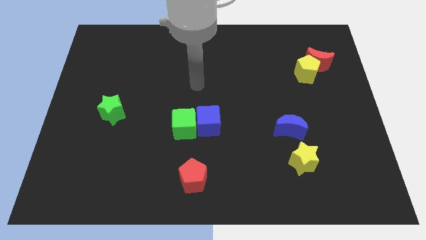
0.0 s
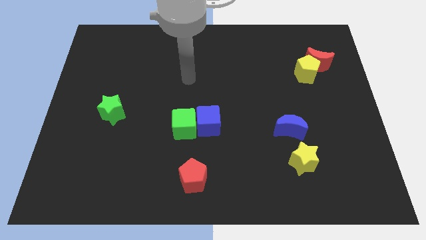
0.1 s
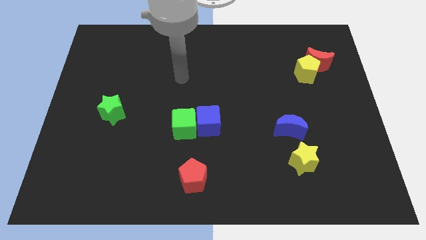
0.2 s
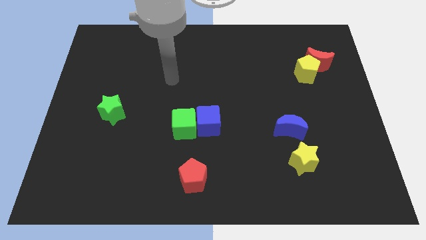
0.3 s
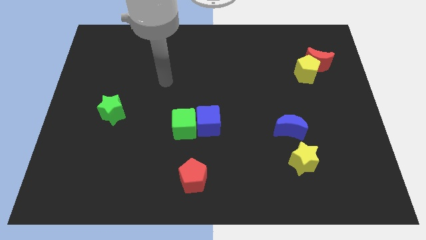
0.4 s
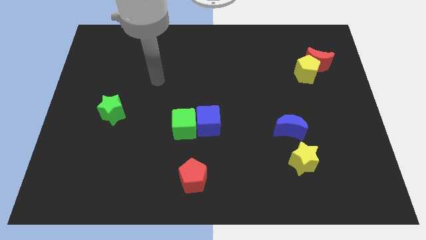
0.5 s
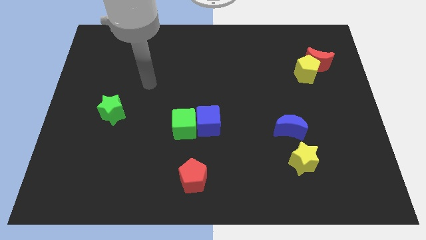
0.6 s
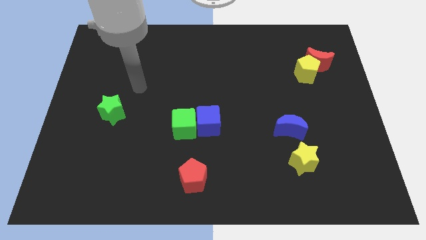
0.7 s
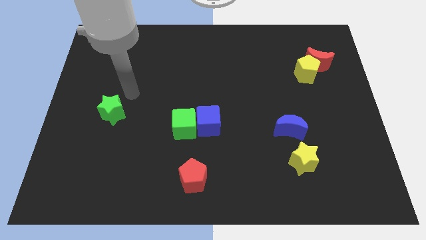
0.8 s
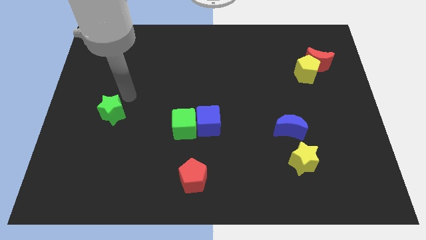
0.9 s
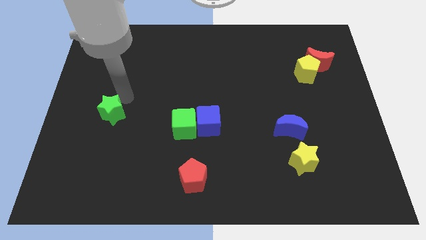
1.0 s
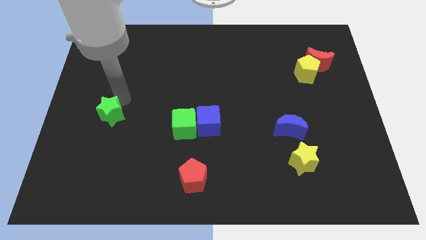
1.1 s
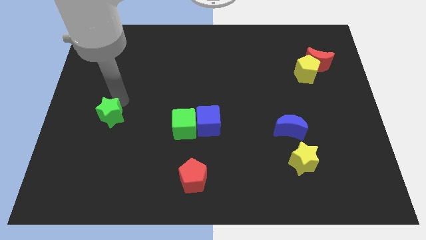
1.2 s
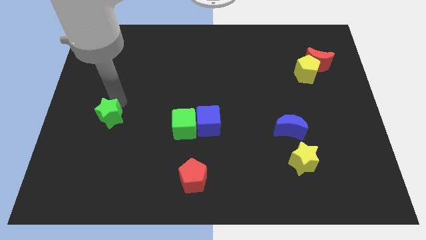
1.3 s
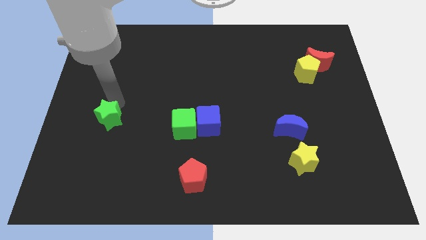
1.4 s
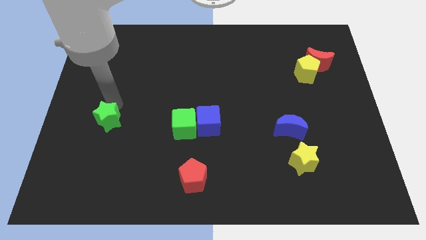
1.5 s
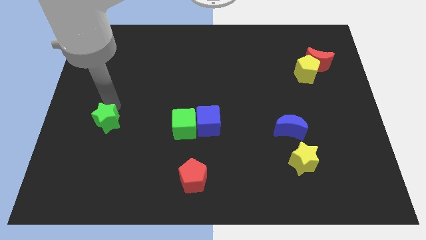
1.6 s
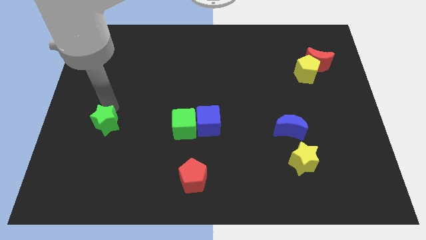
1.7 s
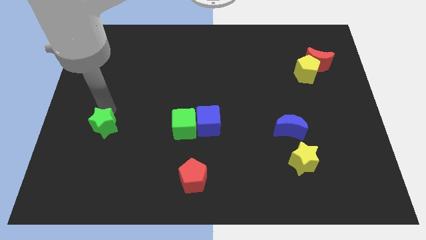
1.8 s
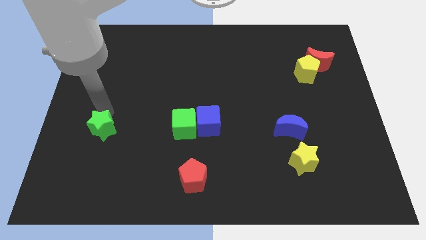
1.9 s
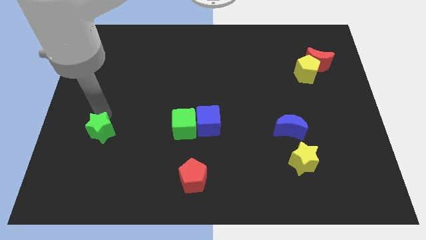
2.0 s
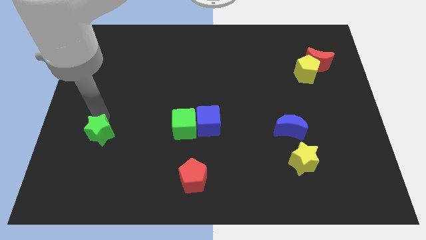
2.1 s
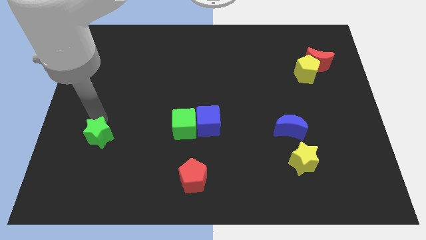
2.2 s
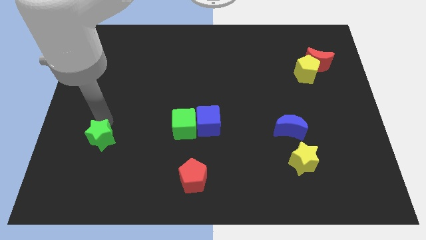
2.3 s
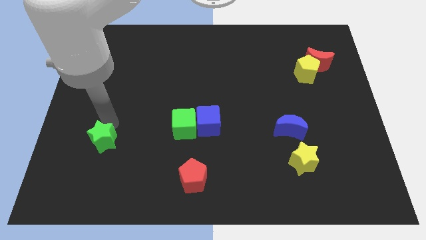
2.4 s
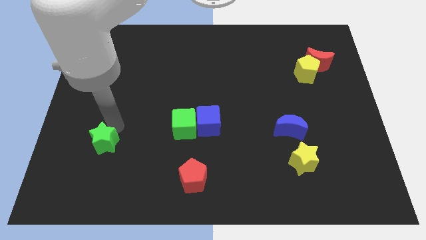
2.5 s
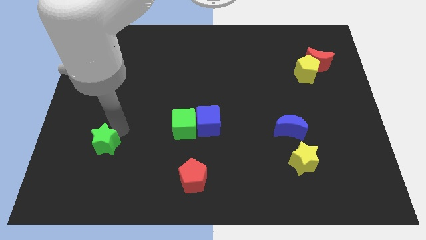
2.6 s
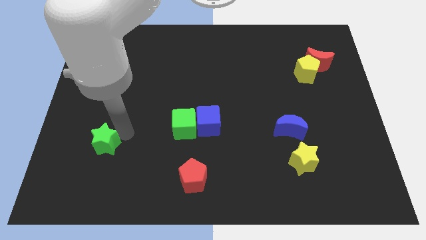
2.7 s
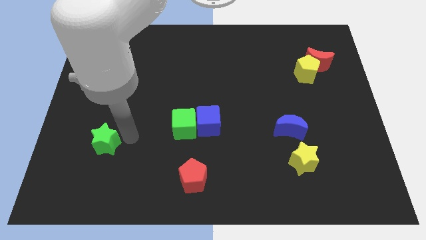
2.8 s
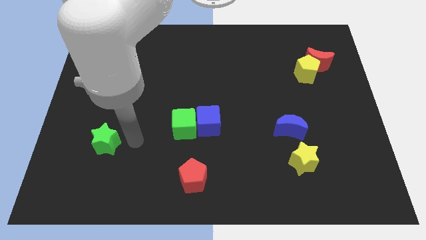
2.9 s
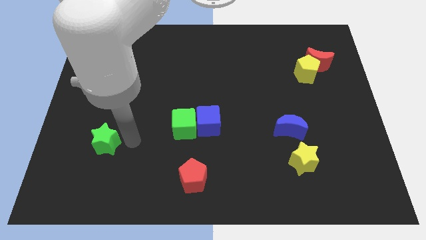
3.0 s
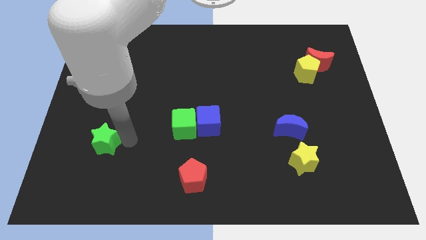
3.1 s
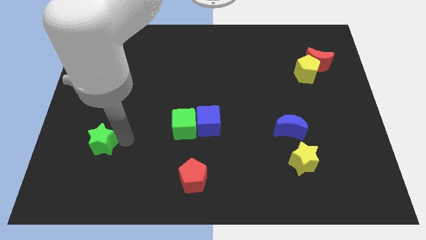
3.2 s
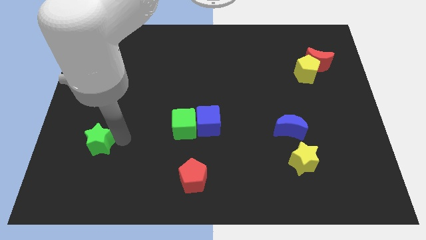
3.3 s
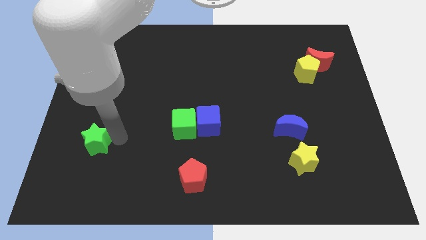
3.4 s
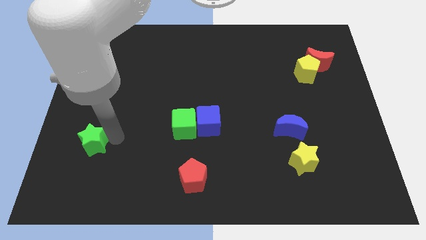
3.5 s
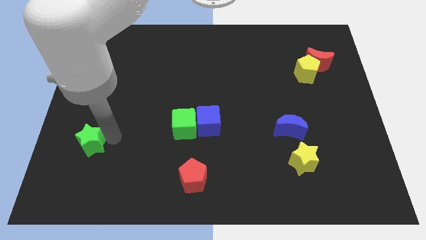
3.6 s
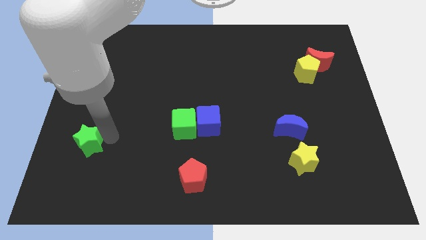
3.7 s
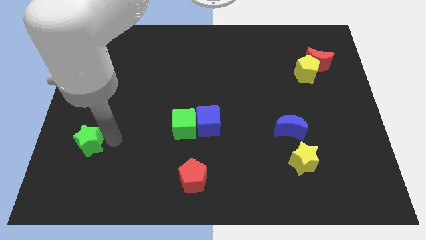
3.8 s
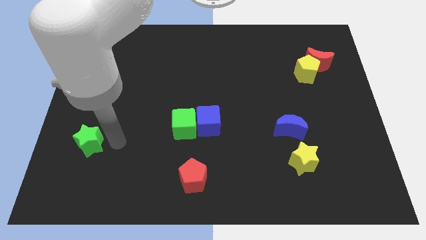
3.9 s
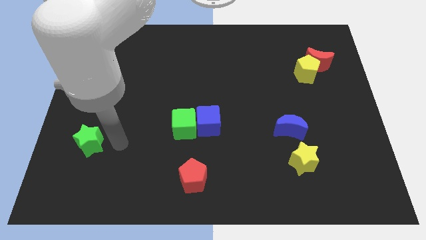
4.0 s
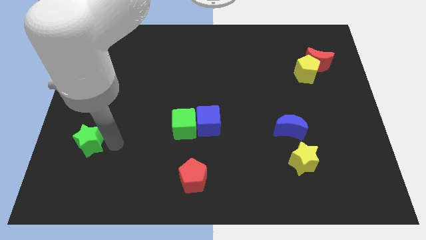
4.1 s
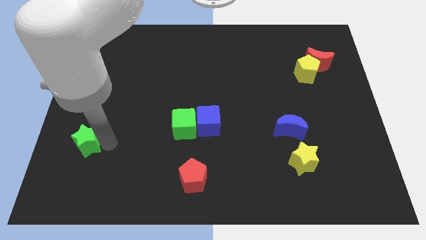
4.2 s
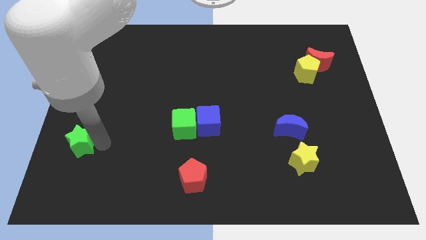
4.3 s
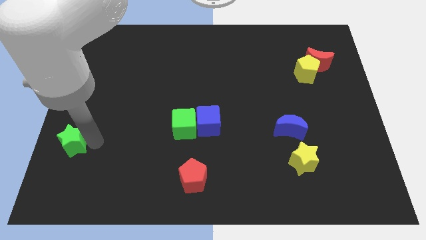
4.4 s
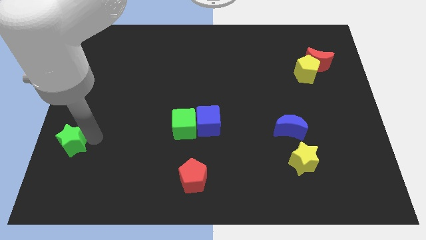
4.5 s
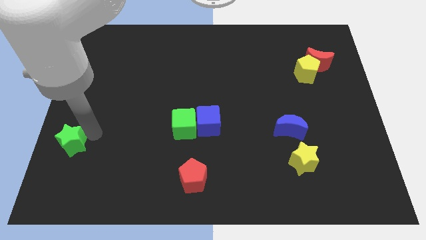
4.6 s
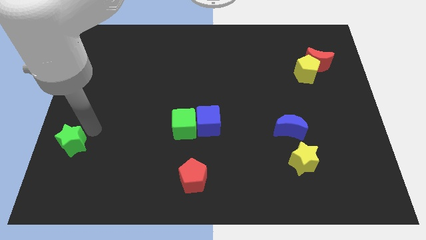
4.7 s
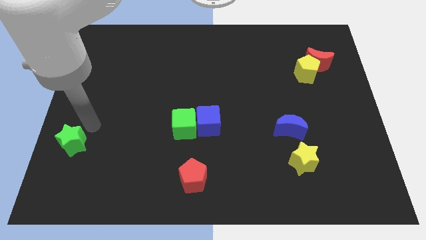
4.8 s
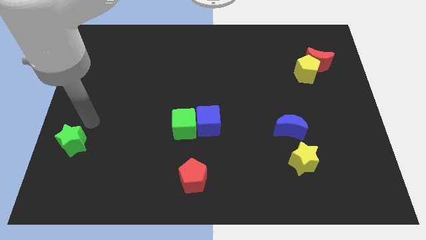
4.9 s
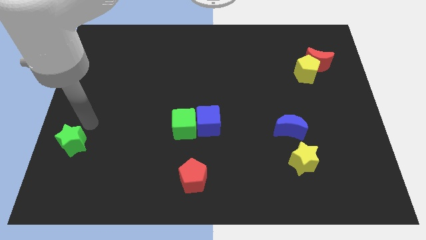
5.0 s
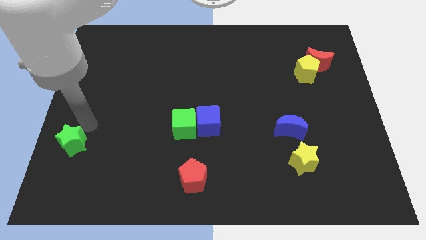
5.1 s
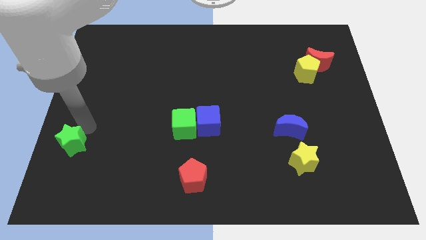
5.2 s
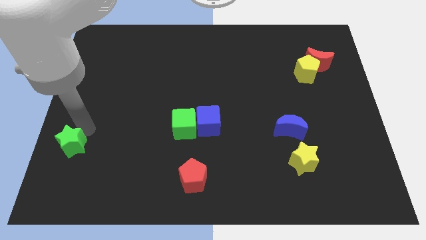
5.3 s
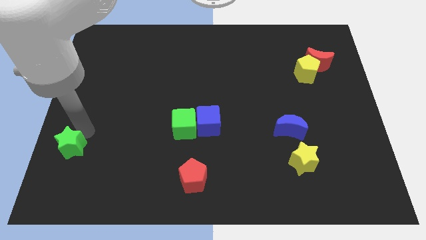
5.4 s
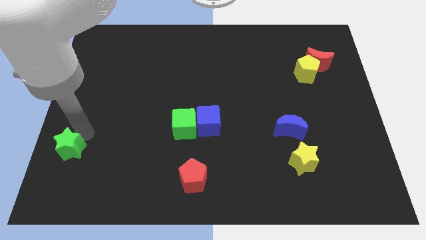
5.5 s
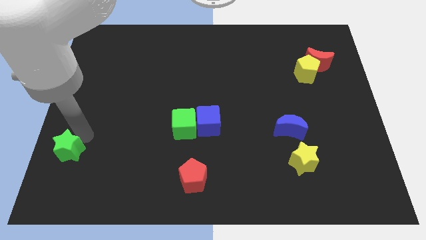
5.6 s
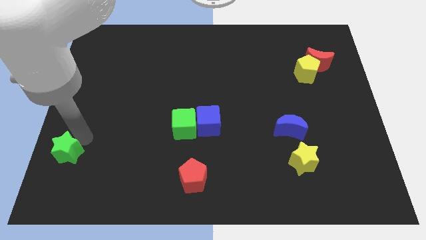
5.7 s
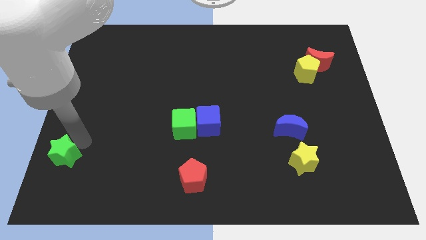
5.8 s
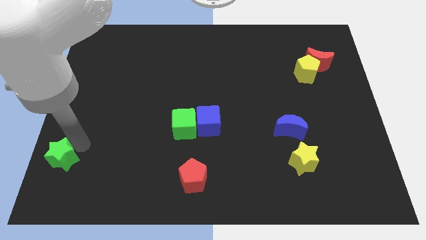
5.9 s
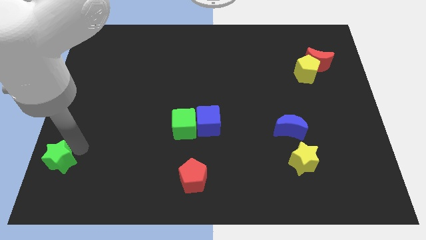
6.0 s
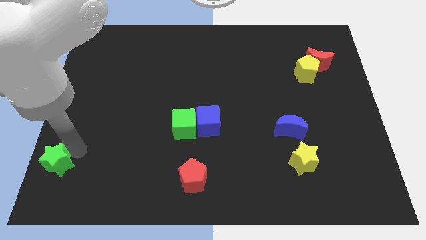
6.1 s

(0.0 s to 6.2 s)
slide the green star to the bottom left of the board

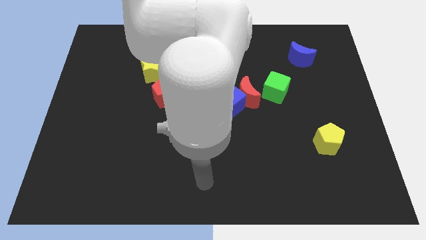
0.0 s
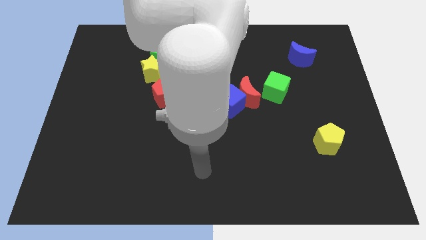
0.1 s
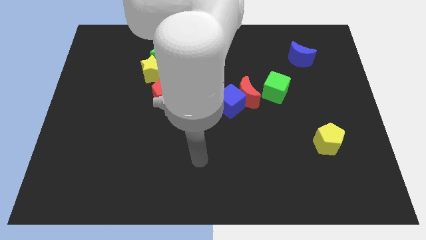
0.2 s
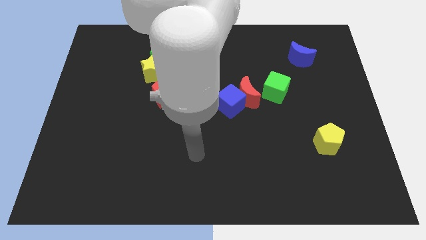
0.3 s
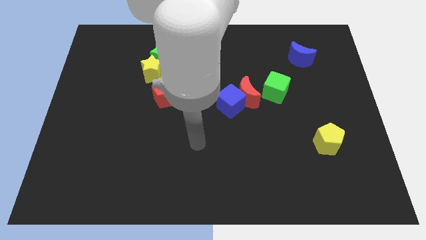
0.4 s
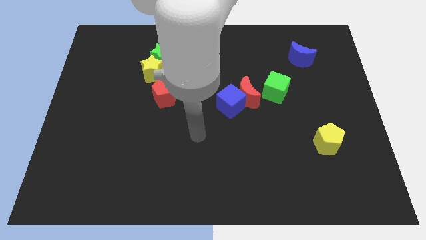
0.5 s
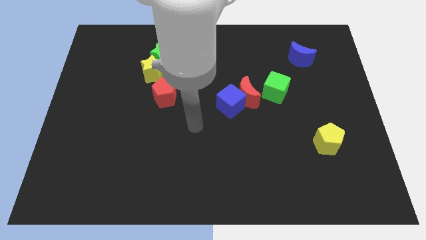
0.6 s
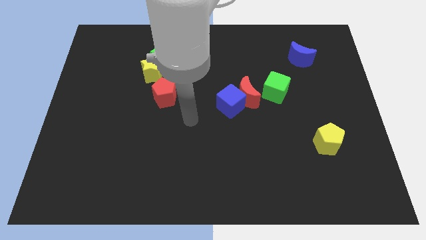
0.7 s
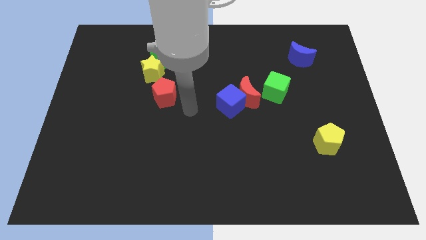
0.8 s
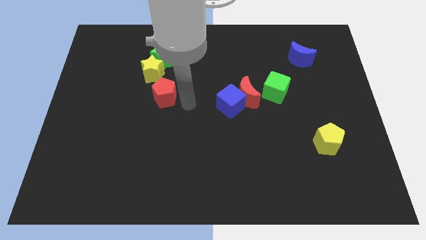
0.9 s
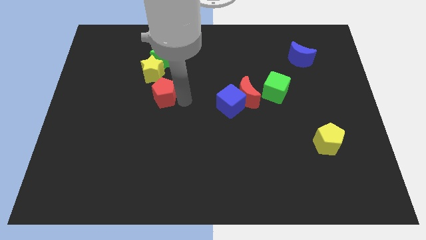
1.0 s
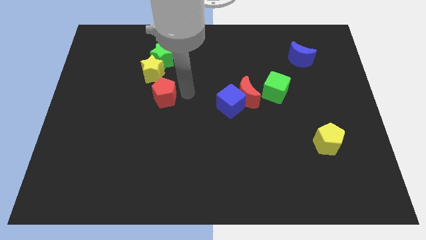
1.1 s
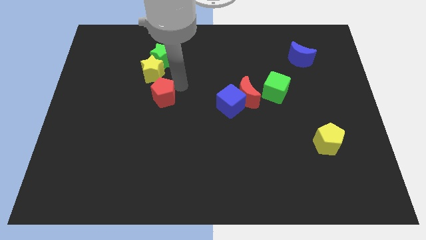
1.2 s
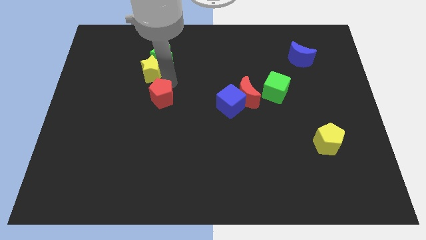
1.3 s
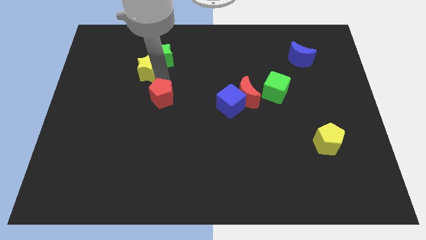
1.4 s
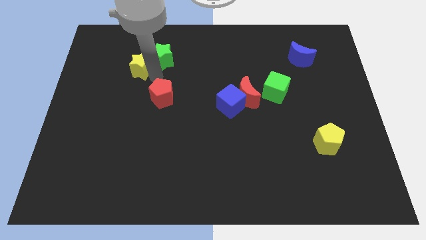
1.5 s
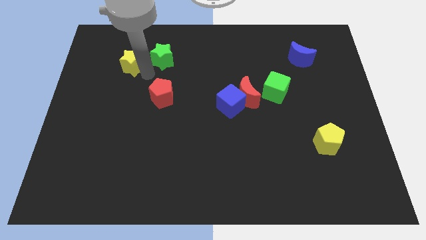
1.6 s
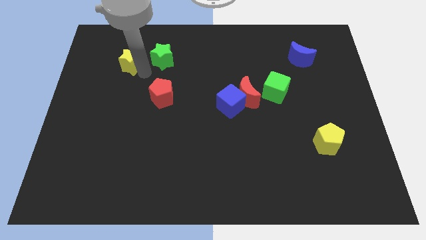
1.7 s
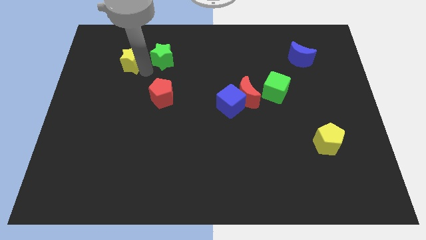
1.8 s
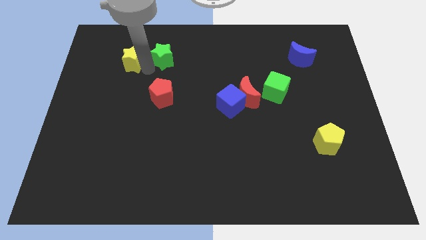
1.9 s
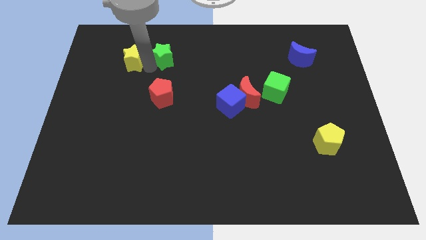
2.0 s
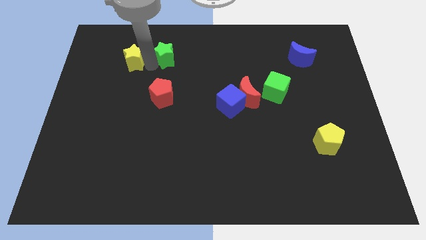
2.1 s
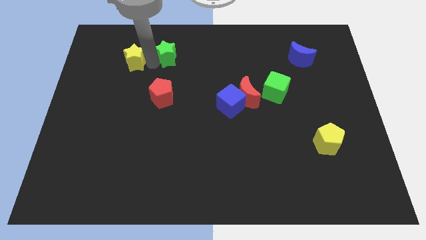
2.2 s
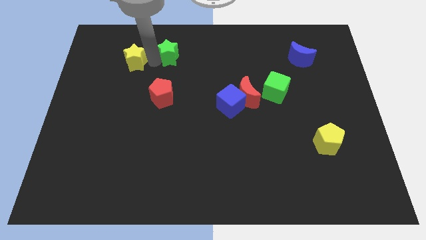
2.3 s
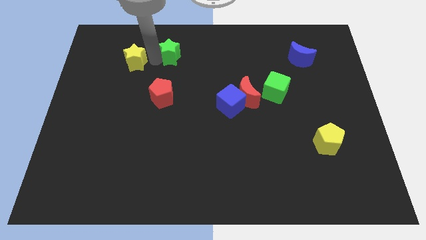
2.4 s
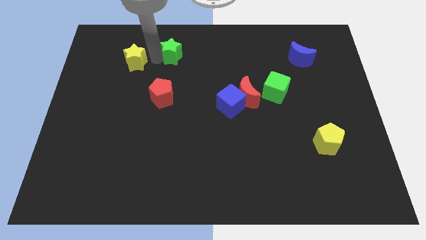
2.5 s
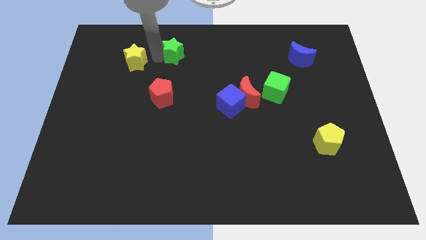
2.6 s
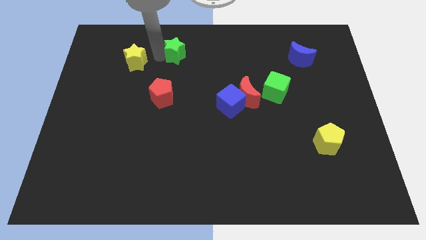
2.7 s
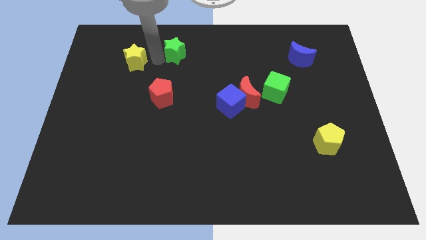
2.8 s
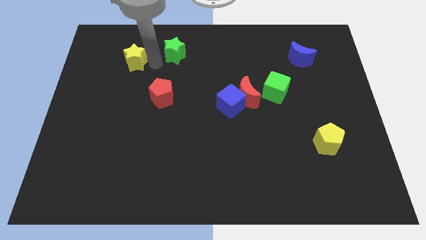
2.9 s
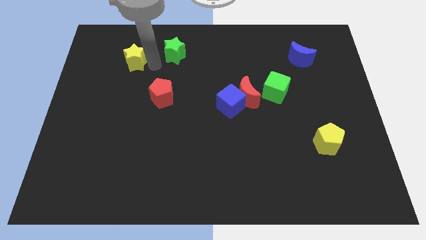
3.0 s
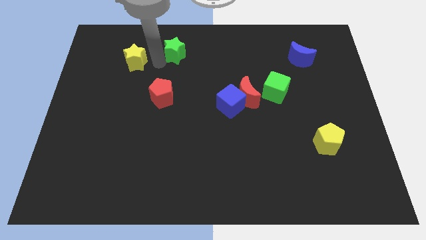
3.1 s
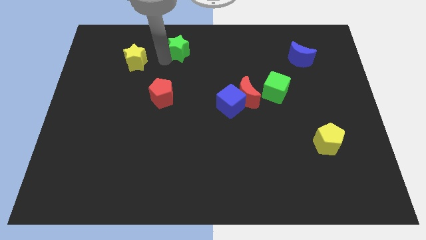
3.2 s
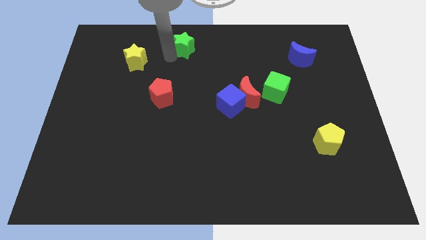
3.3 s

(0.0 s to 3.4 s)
put the green star to the top side
